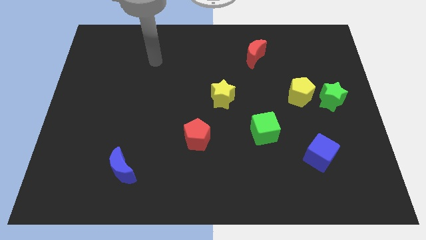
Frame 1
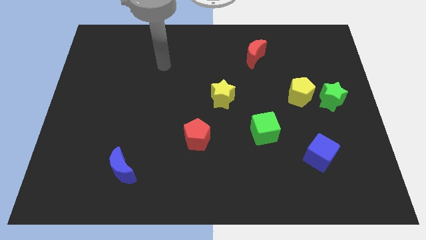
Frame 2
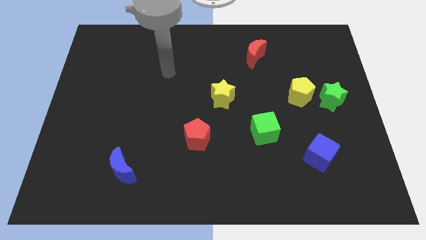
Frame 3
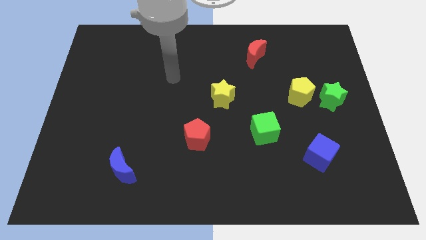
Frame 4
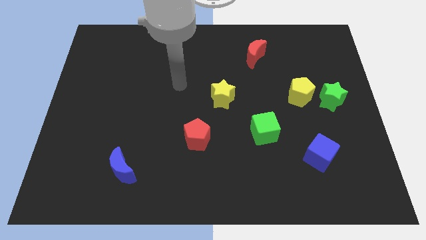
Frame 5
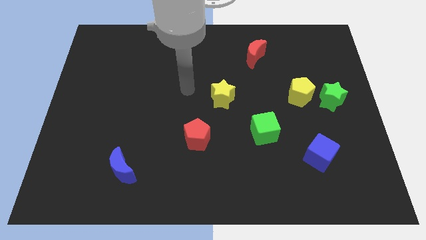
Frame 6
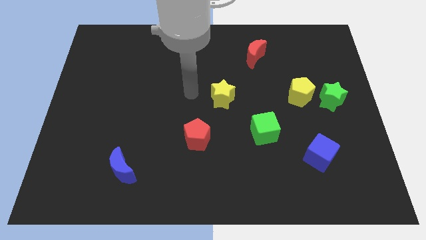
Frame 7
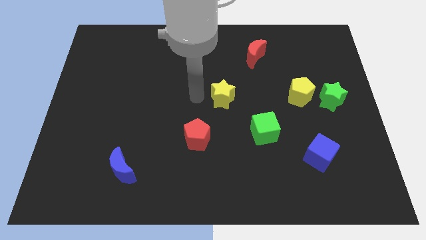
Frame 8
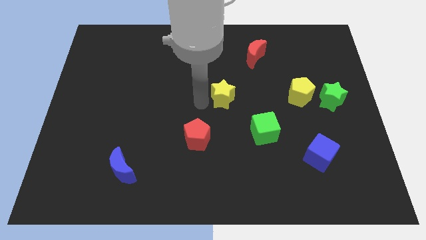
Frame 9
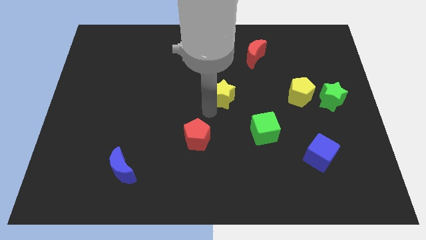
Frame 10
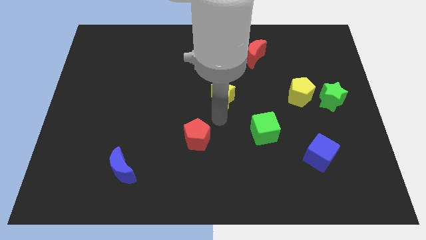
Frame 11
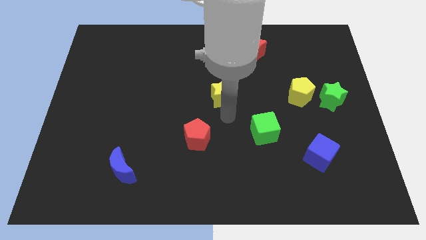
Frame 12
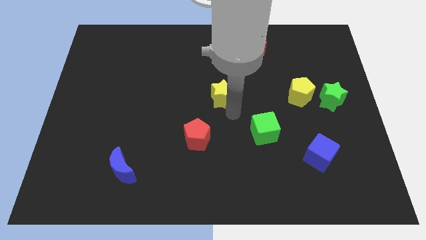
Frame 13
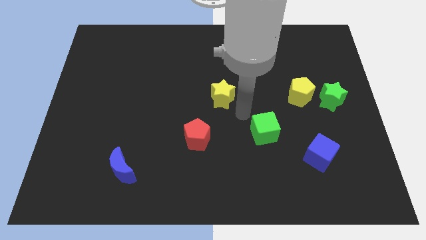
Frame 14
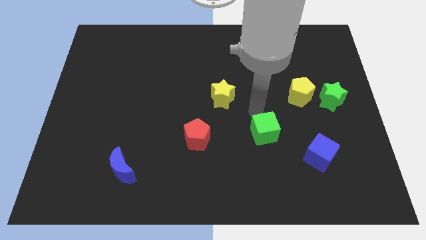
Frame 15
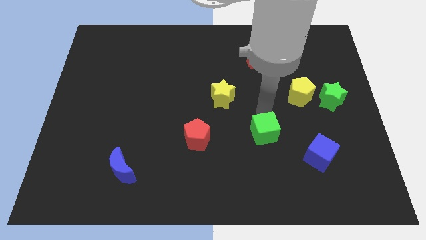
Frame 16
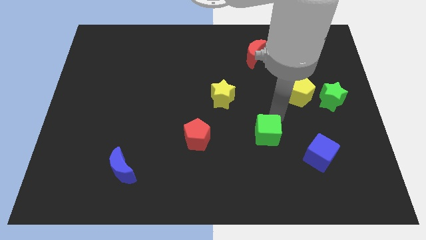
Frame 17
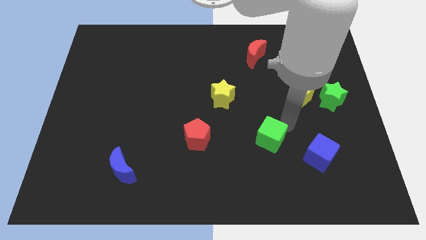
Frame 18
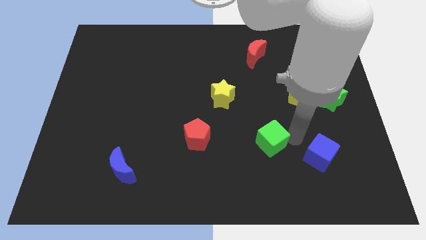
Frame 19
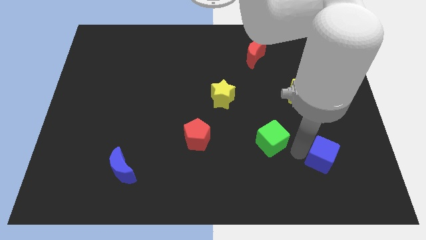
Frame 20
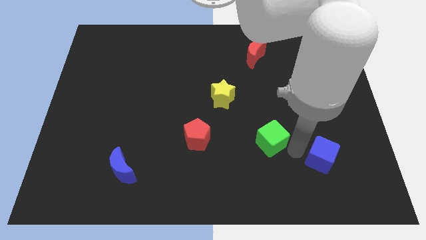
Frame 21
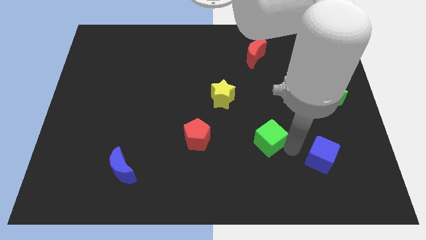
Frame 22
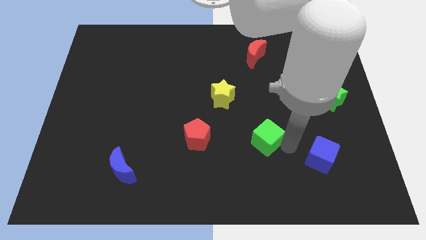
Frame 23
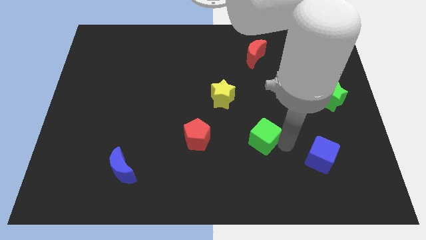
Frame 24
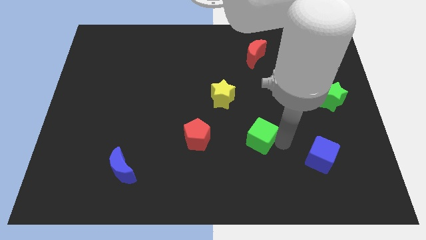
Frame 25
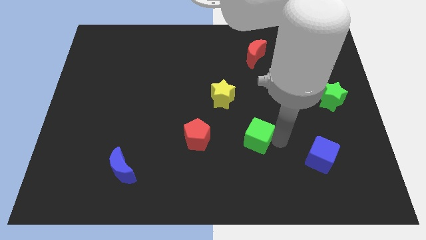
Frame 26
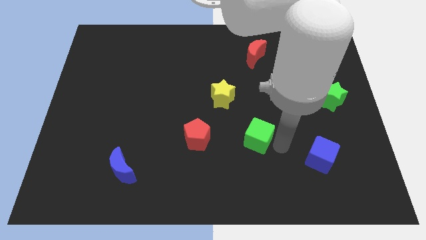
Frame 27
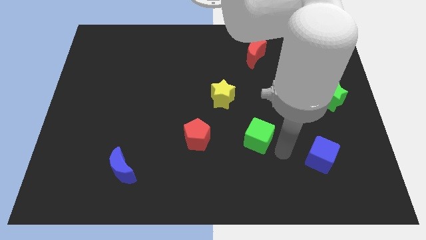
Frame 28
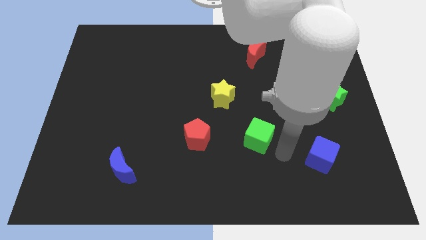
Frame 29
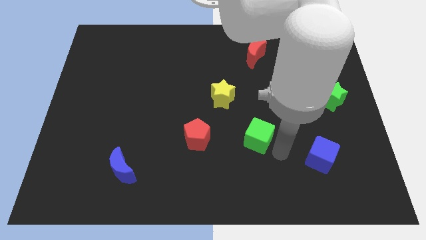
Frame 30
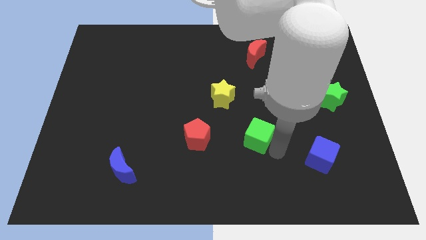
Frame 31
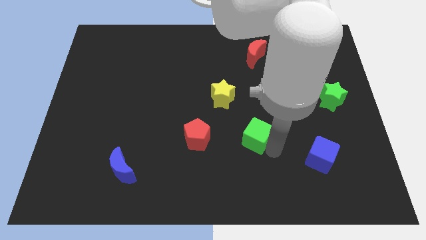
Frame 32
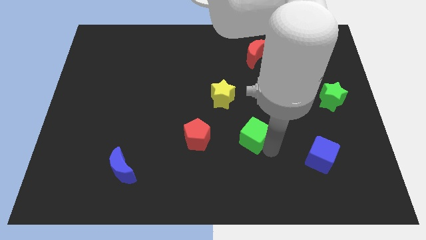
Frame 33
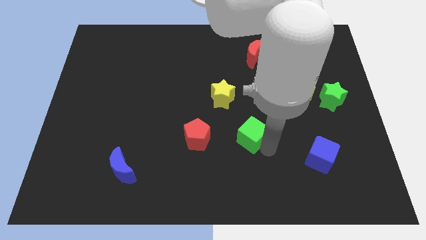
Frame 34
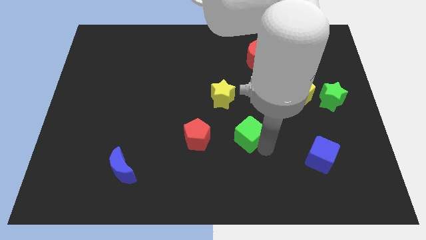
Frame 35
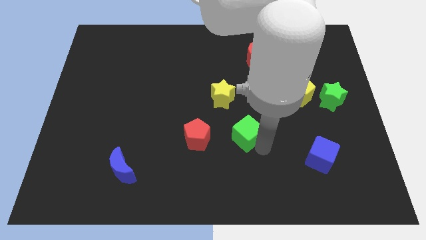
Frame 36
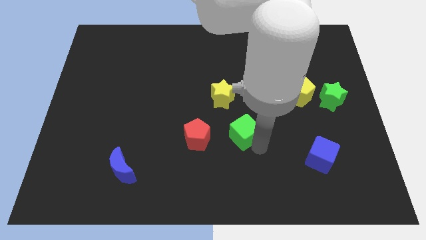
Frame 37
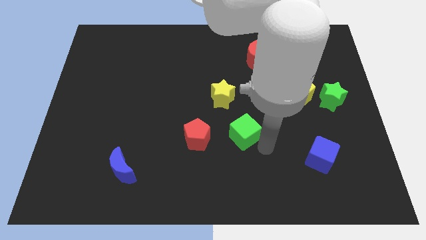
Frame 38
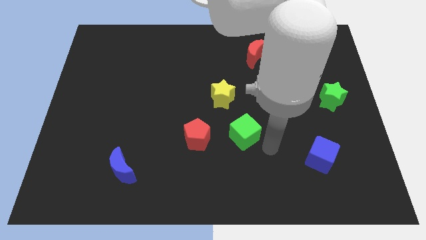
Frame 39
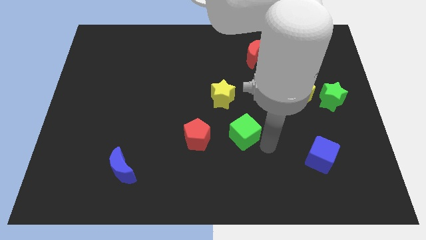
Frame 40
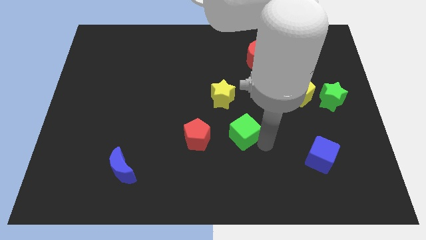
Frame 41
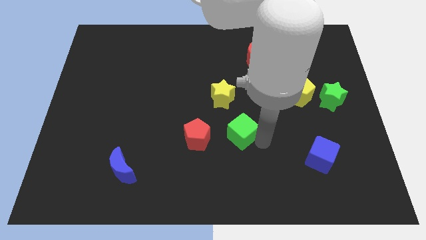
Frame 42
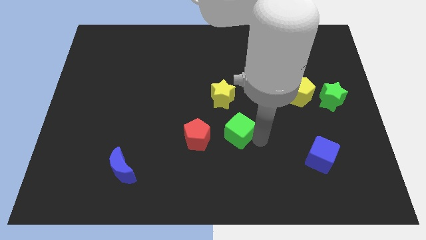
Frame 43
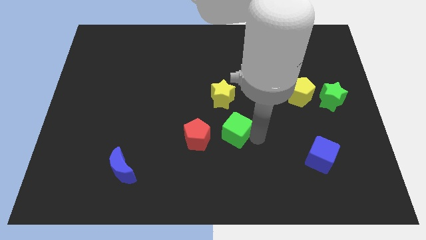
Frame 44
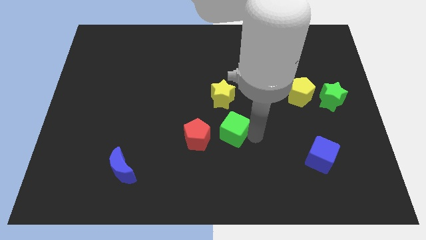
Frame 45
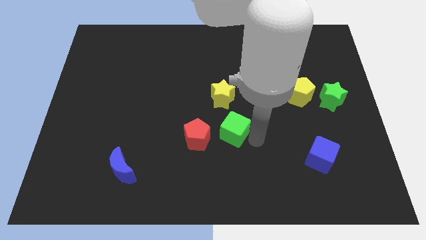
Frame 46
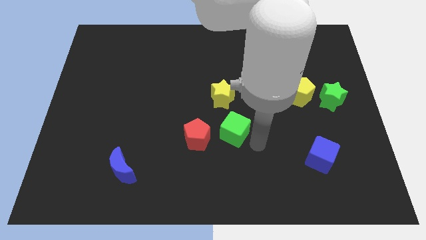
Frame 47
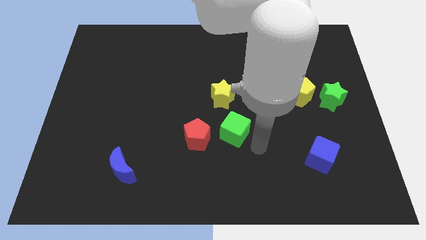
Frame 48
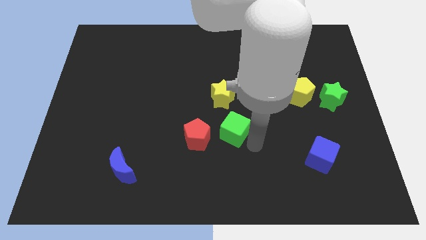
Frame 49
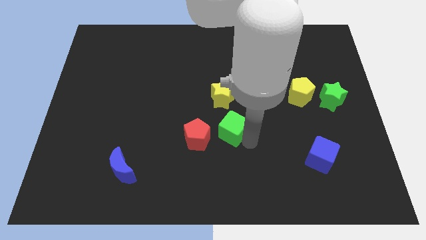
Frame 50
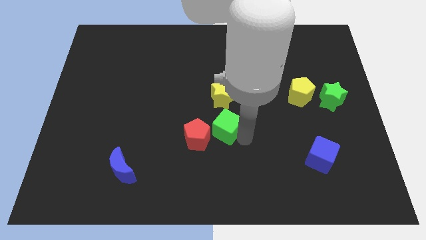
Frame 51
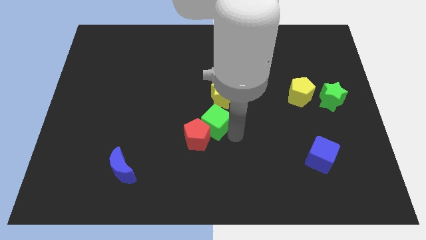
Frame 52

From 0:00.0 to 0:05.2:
move the green cube slightly up and to the left diagonally

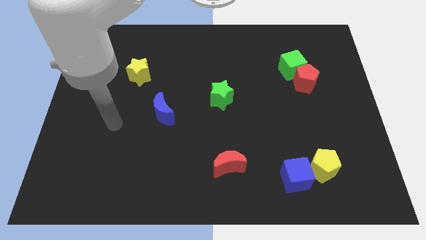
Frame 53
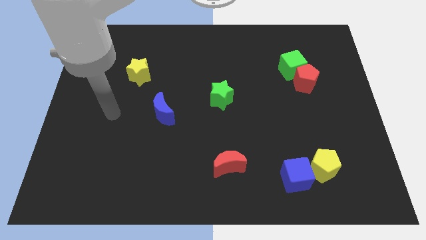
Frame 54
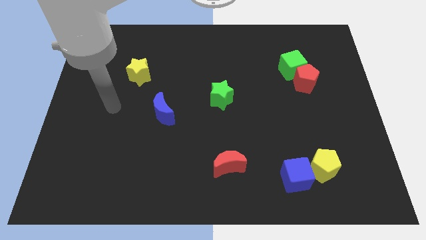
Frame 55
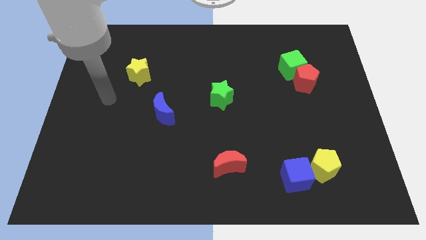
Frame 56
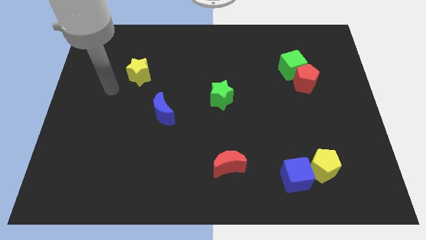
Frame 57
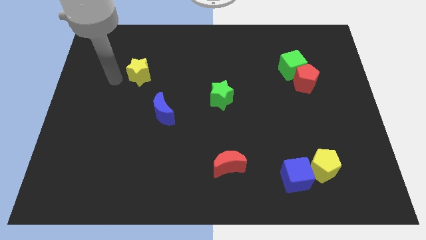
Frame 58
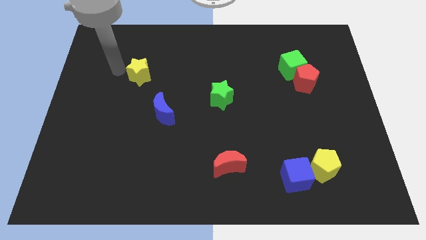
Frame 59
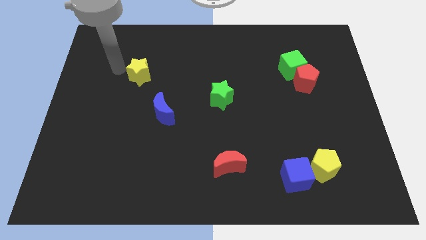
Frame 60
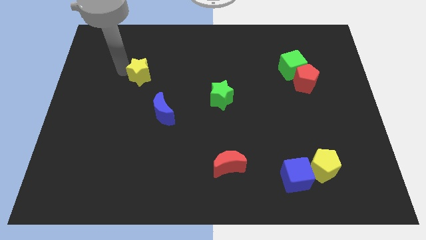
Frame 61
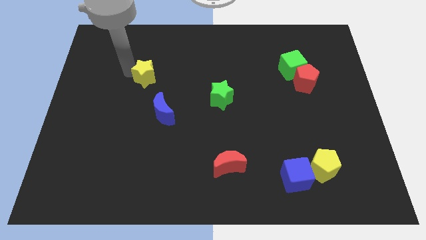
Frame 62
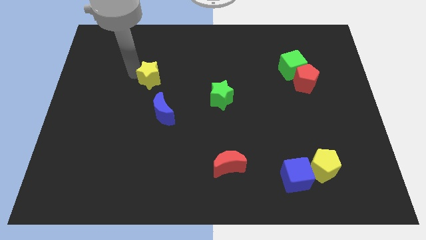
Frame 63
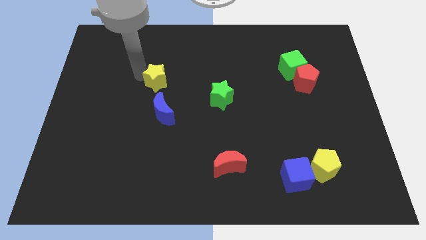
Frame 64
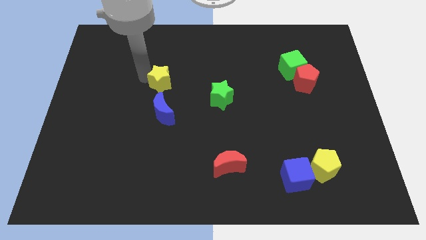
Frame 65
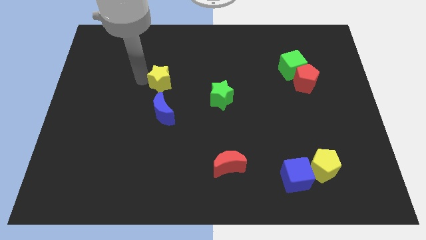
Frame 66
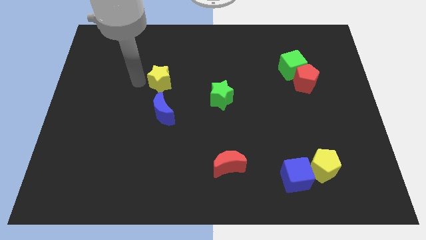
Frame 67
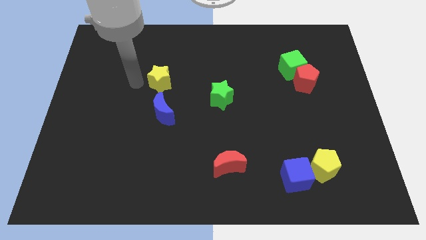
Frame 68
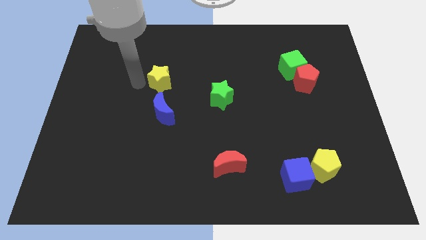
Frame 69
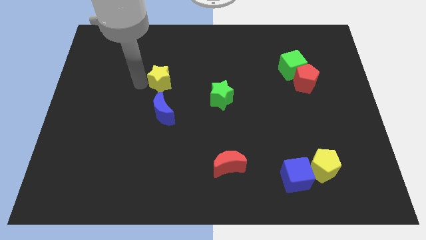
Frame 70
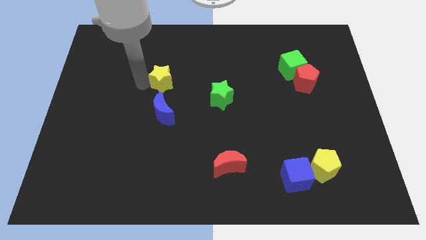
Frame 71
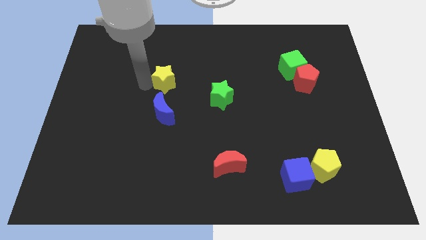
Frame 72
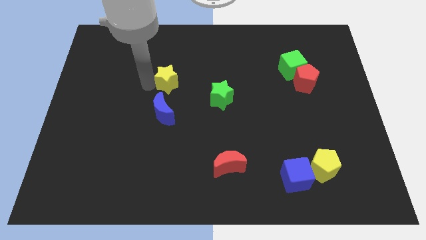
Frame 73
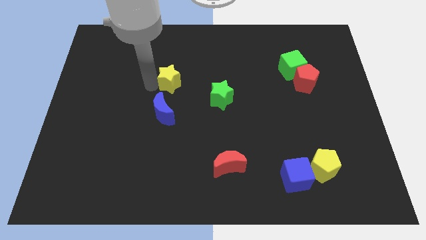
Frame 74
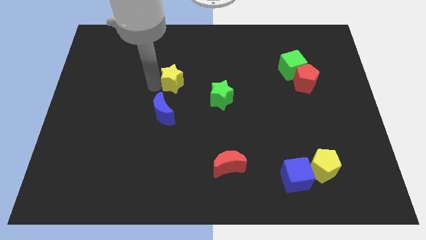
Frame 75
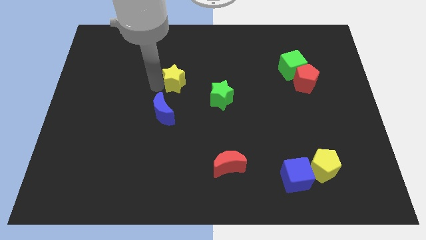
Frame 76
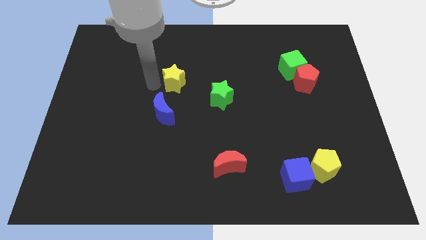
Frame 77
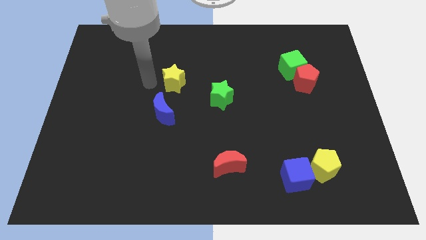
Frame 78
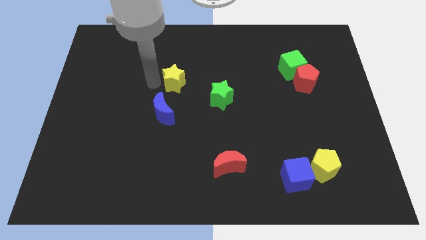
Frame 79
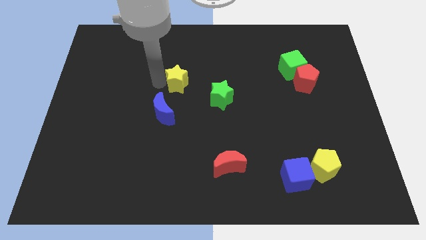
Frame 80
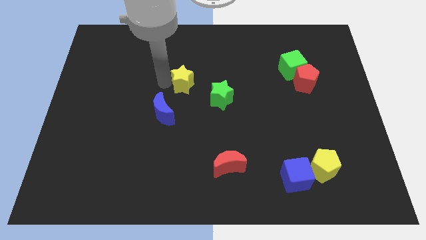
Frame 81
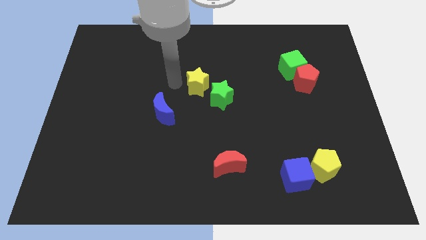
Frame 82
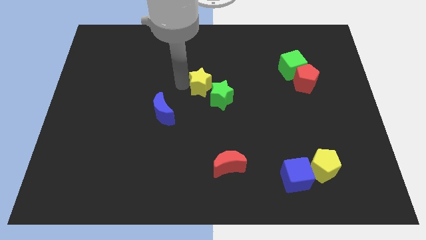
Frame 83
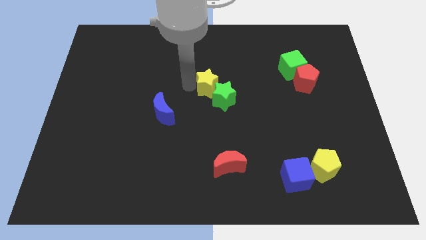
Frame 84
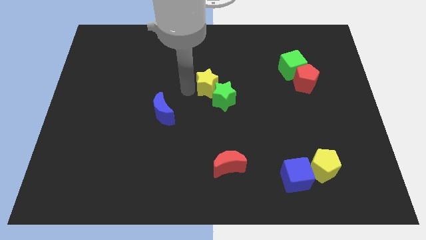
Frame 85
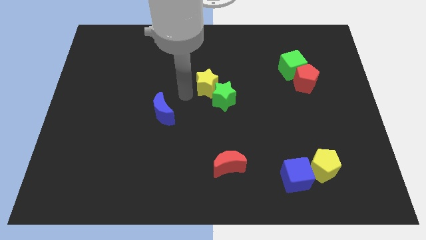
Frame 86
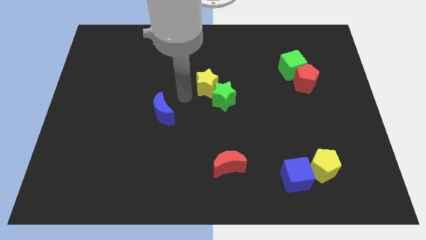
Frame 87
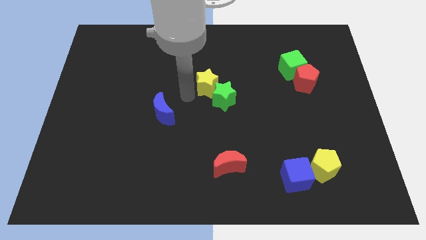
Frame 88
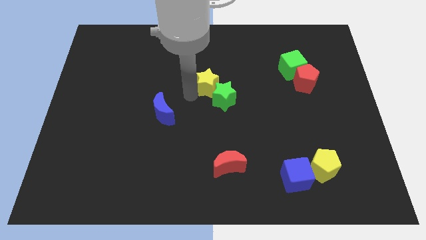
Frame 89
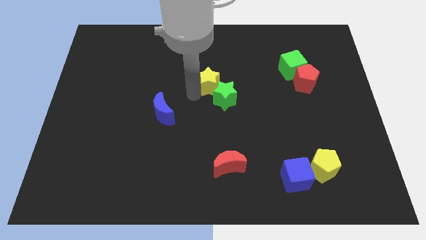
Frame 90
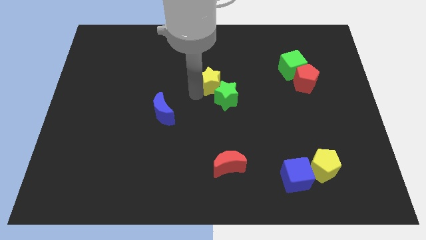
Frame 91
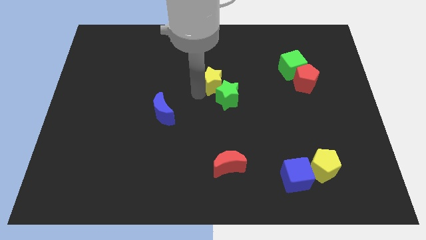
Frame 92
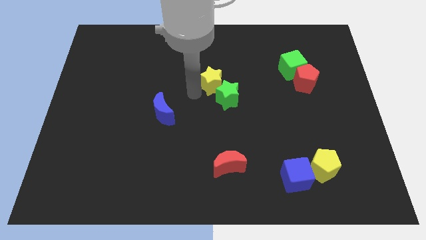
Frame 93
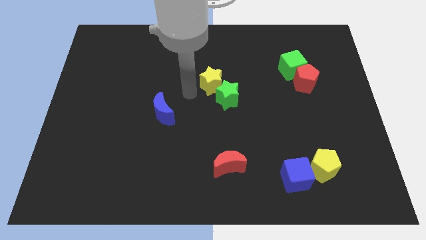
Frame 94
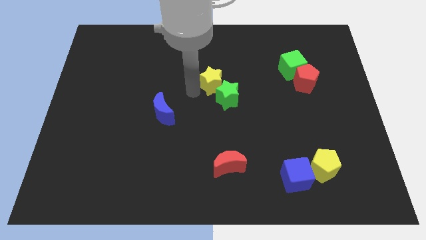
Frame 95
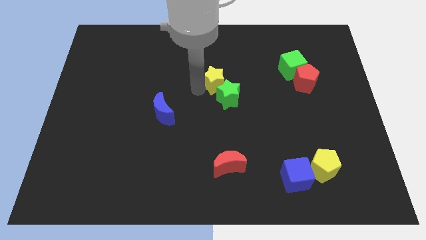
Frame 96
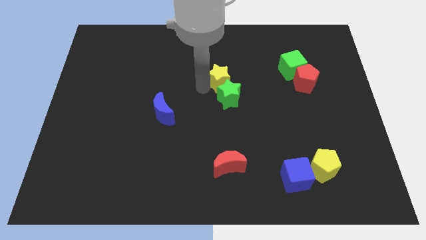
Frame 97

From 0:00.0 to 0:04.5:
move the yellow star right
